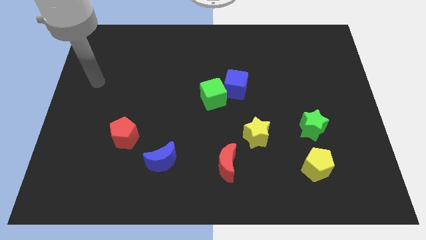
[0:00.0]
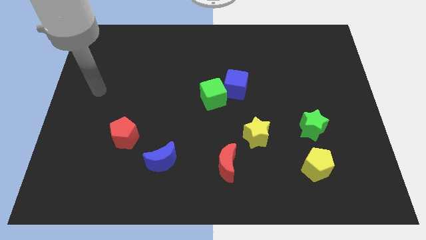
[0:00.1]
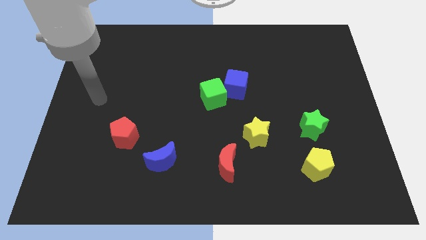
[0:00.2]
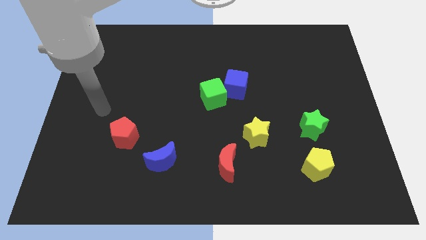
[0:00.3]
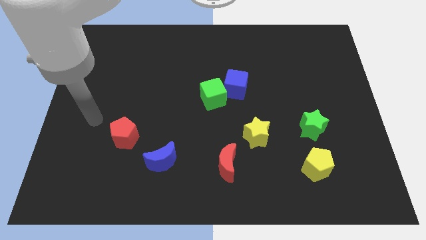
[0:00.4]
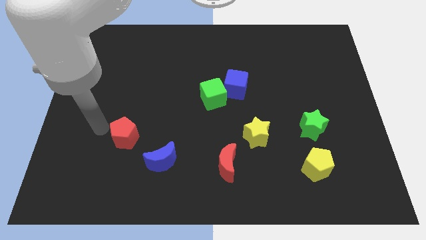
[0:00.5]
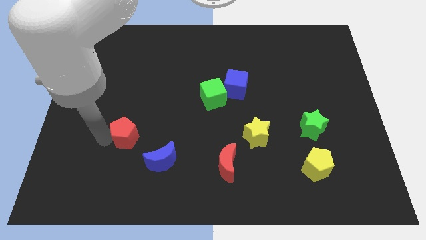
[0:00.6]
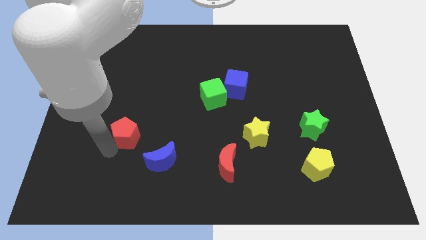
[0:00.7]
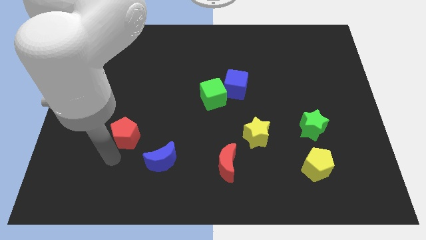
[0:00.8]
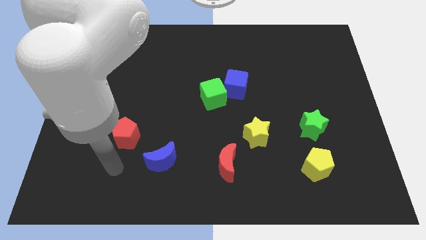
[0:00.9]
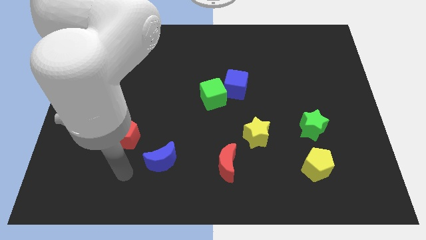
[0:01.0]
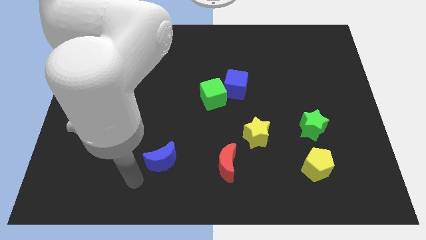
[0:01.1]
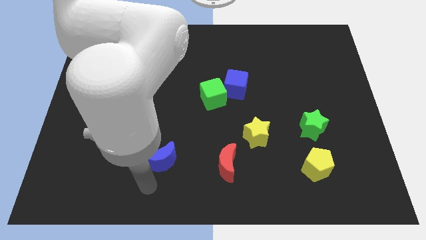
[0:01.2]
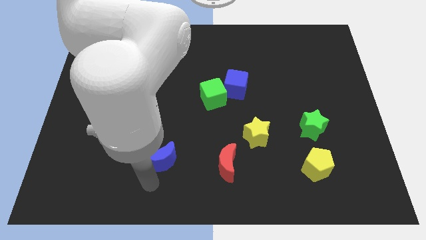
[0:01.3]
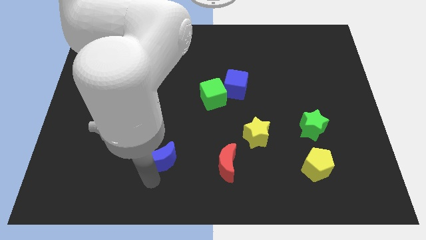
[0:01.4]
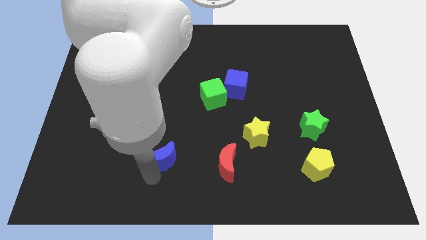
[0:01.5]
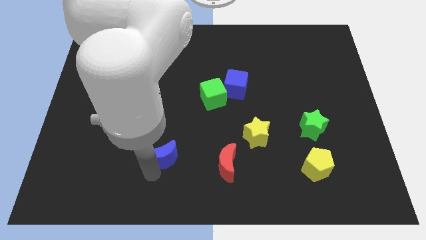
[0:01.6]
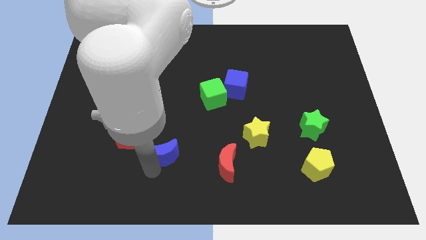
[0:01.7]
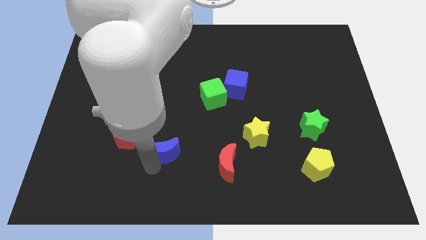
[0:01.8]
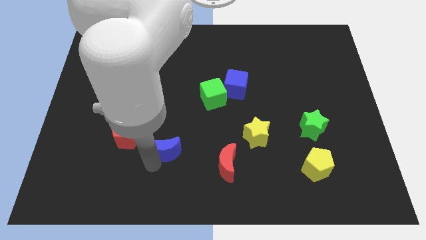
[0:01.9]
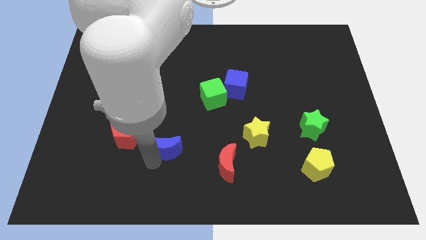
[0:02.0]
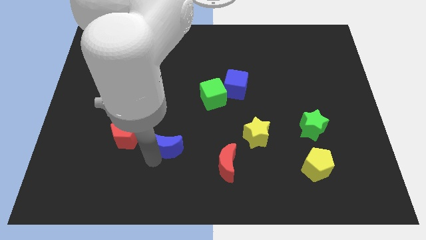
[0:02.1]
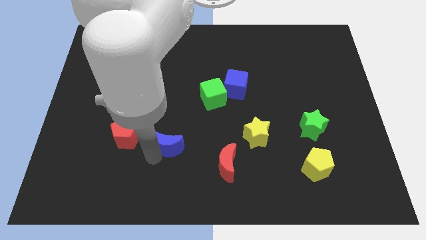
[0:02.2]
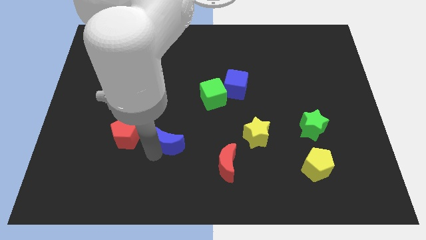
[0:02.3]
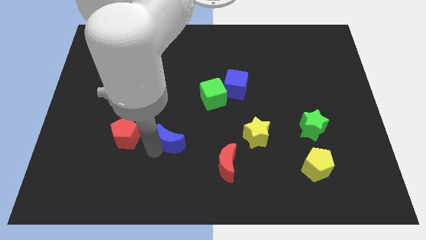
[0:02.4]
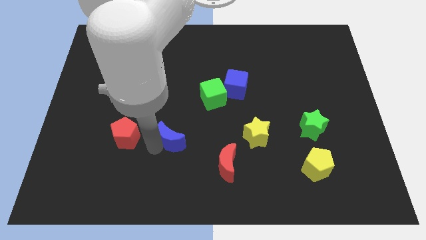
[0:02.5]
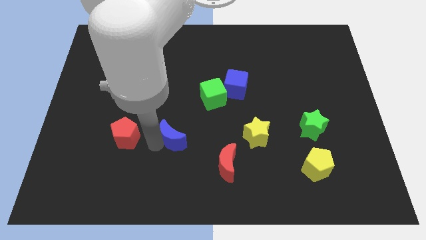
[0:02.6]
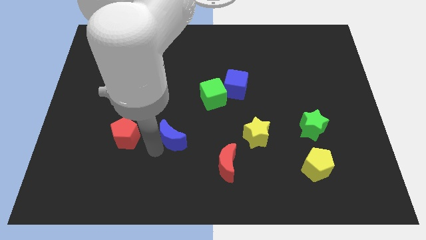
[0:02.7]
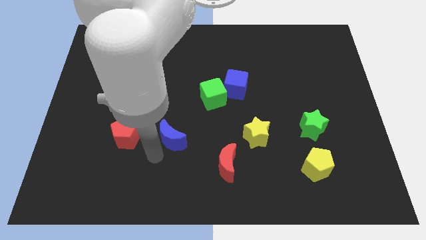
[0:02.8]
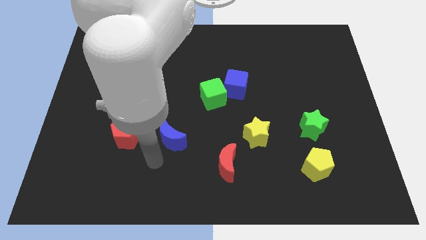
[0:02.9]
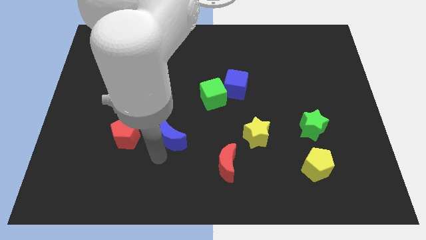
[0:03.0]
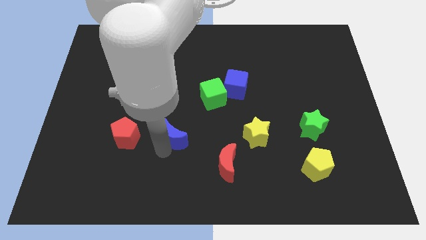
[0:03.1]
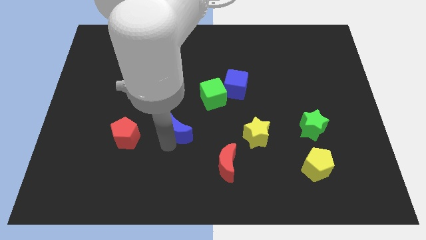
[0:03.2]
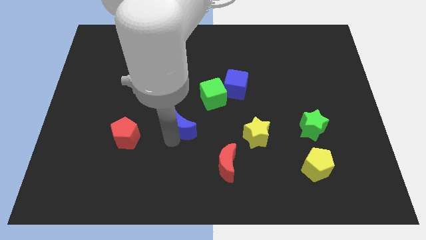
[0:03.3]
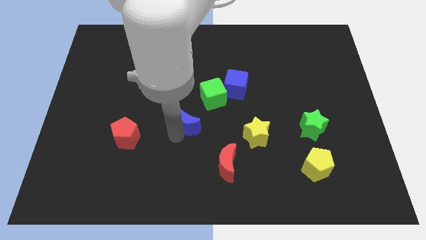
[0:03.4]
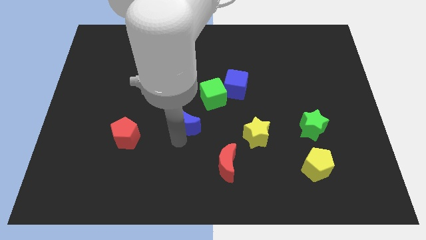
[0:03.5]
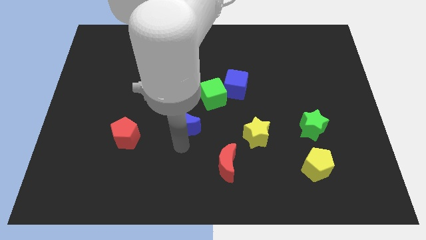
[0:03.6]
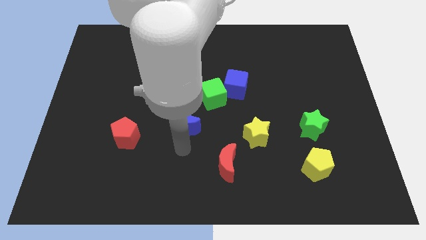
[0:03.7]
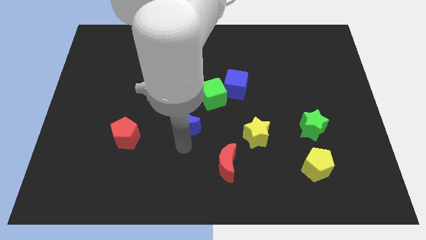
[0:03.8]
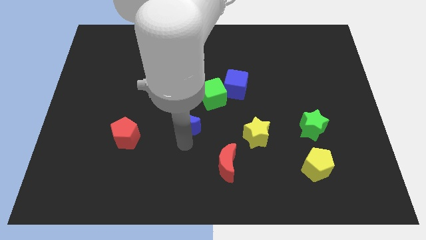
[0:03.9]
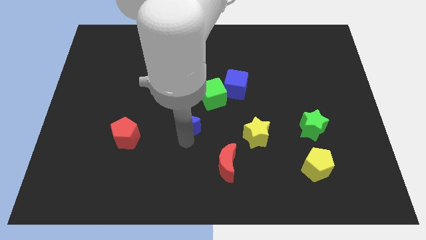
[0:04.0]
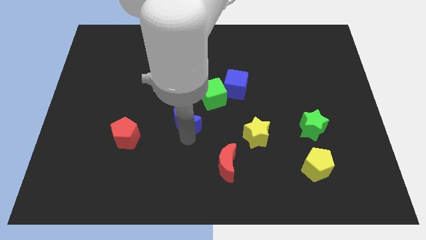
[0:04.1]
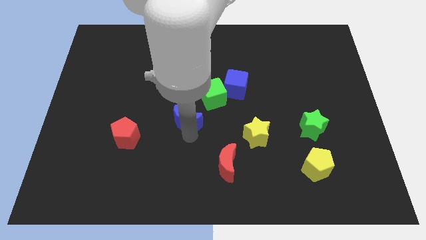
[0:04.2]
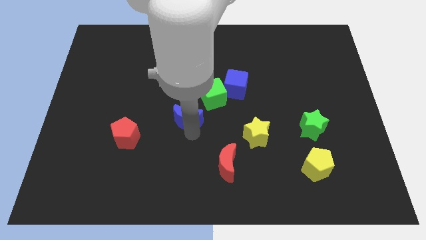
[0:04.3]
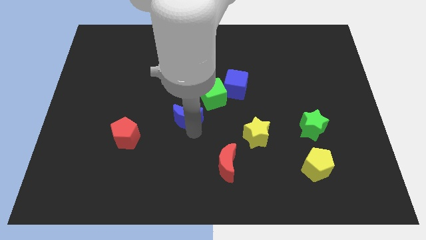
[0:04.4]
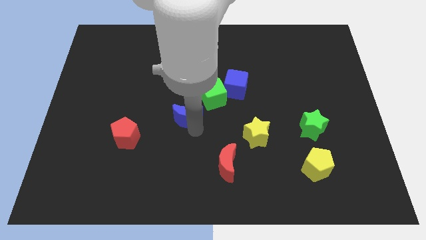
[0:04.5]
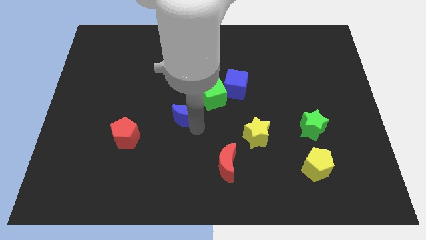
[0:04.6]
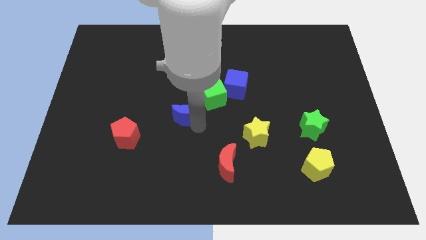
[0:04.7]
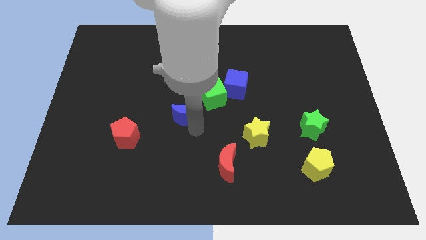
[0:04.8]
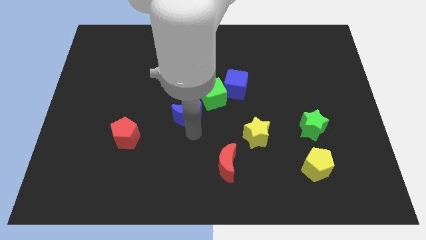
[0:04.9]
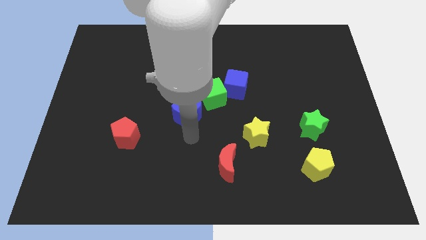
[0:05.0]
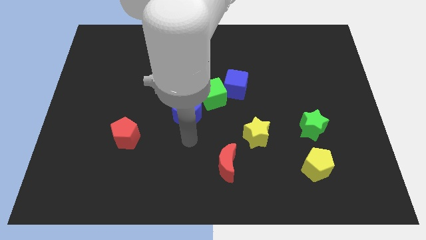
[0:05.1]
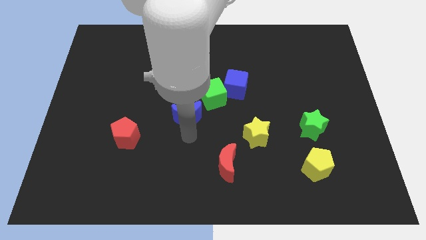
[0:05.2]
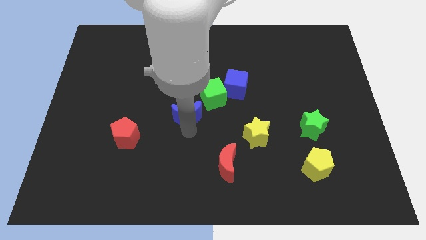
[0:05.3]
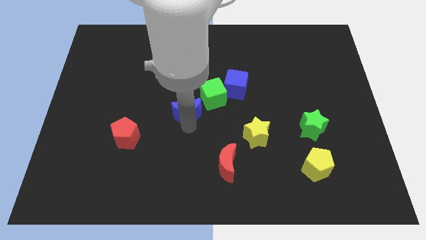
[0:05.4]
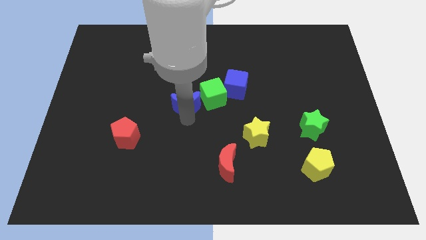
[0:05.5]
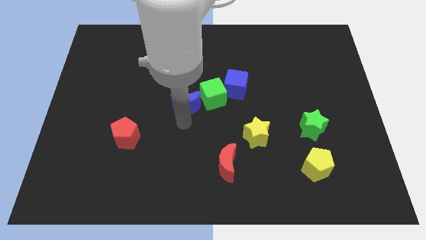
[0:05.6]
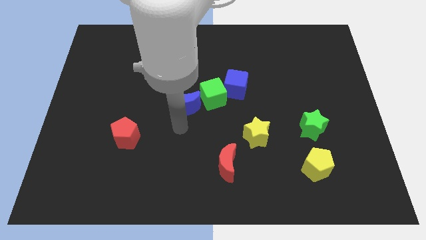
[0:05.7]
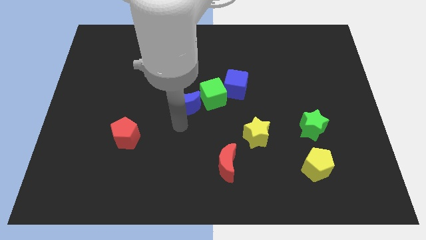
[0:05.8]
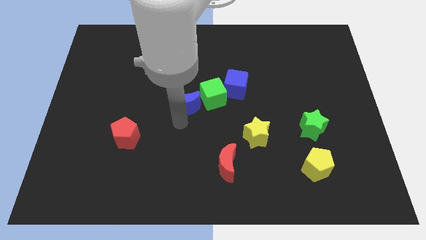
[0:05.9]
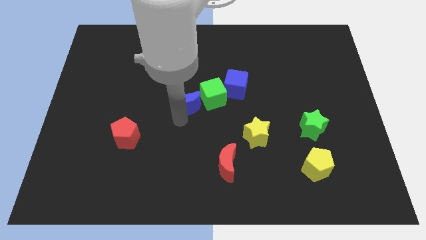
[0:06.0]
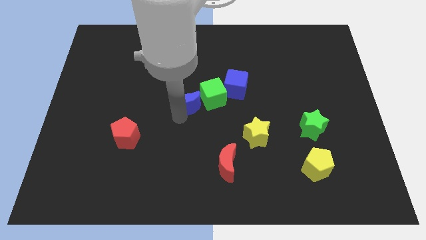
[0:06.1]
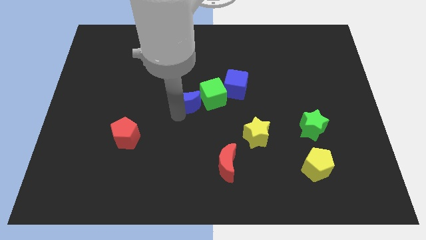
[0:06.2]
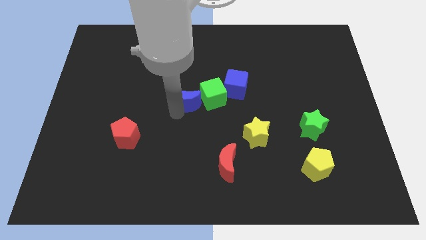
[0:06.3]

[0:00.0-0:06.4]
put the blue moon left of the blue cube
